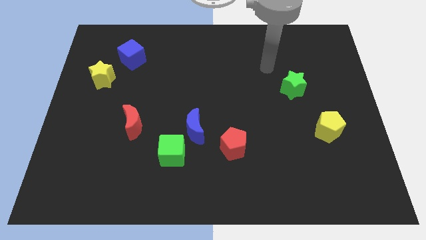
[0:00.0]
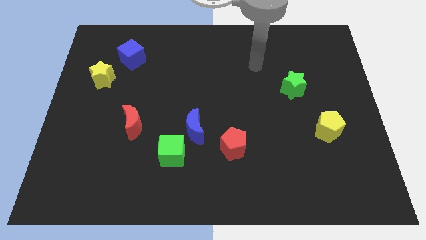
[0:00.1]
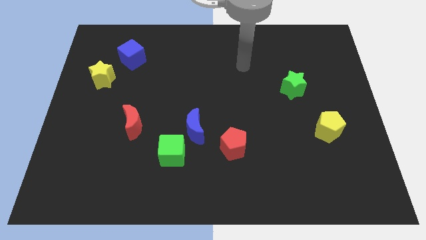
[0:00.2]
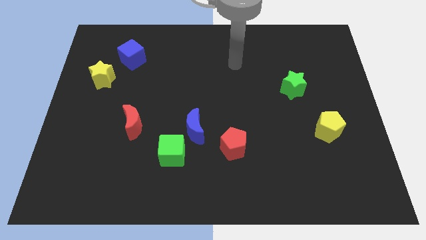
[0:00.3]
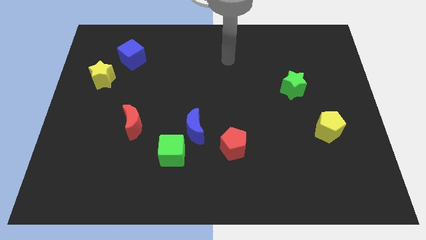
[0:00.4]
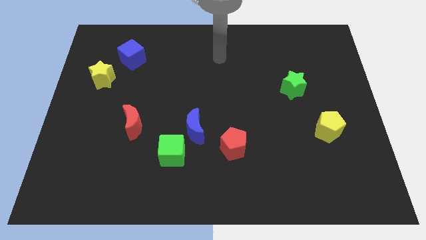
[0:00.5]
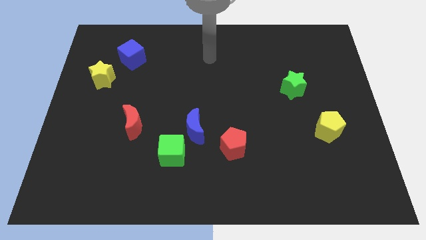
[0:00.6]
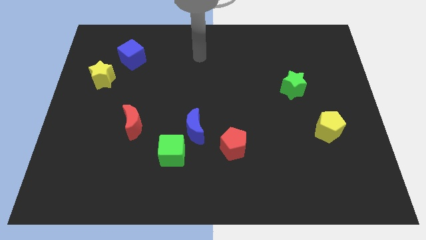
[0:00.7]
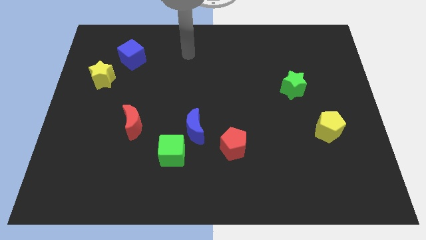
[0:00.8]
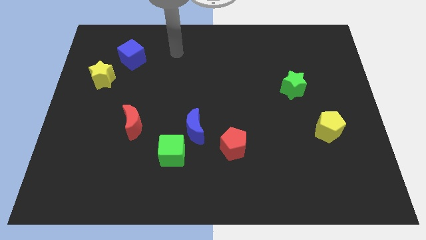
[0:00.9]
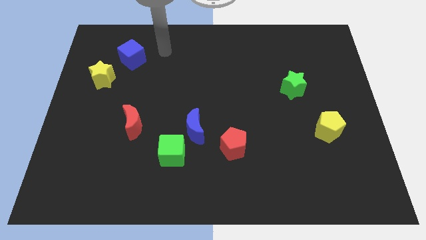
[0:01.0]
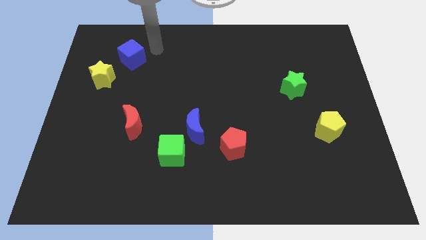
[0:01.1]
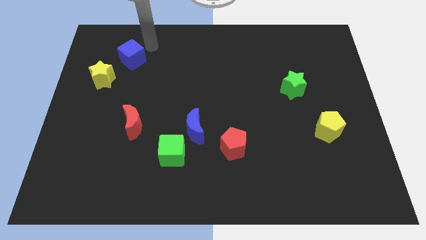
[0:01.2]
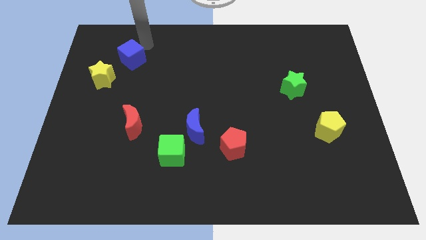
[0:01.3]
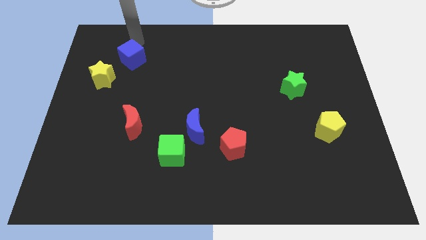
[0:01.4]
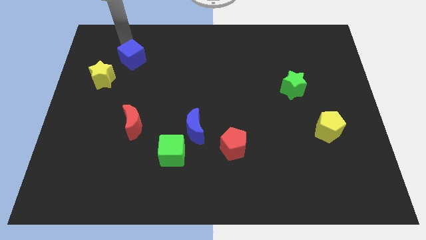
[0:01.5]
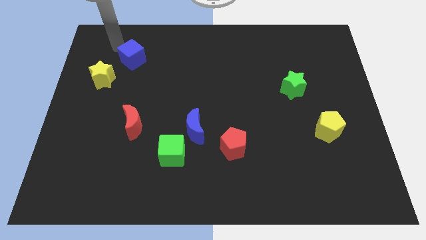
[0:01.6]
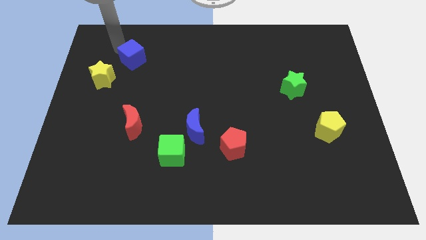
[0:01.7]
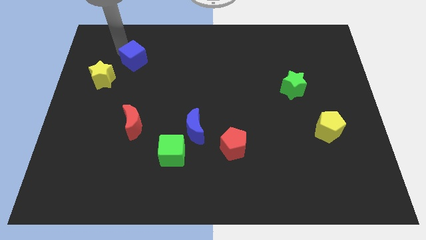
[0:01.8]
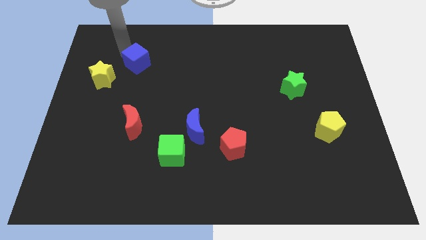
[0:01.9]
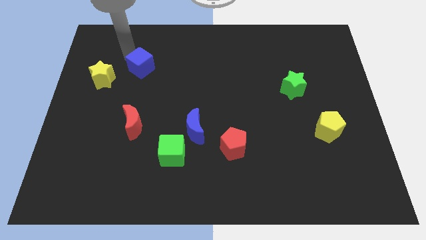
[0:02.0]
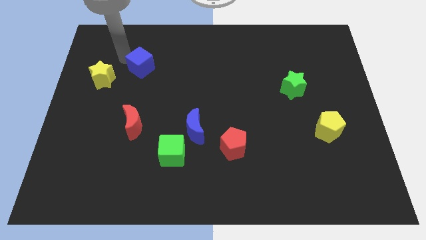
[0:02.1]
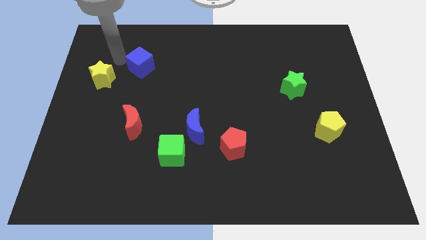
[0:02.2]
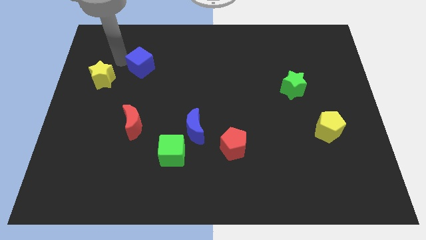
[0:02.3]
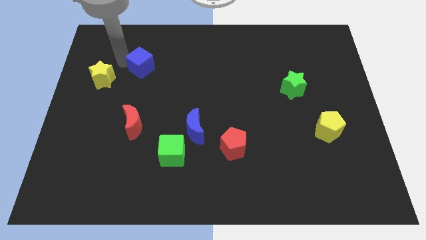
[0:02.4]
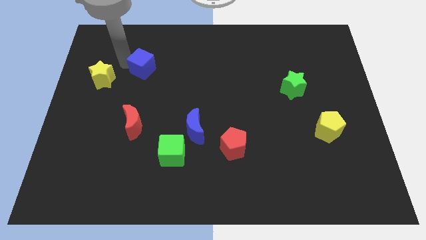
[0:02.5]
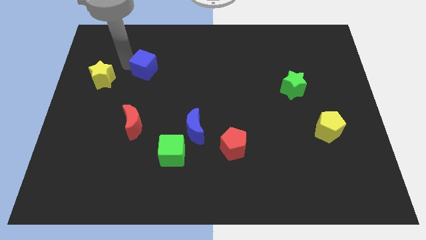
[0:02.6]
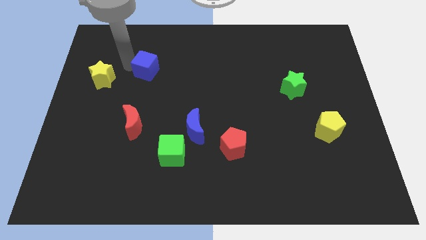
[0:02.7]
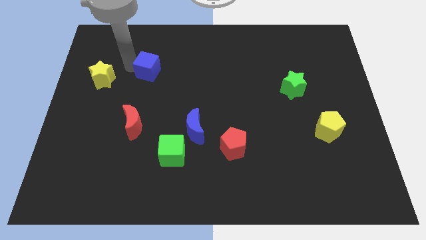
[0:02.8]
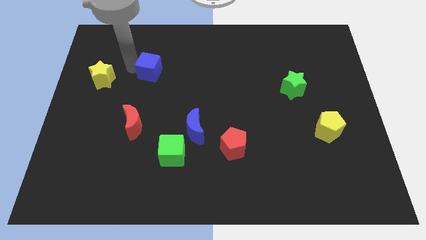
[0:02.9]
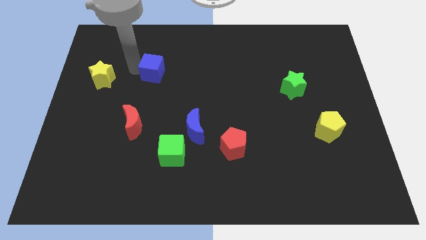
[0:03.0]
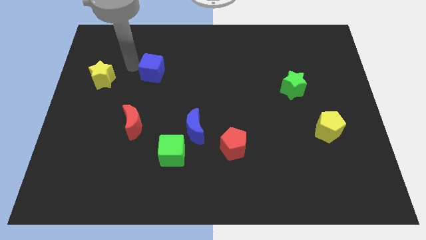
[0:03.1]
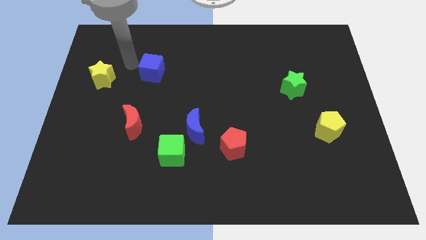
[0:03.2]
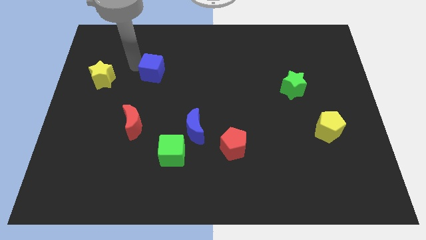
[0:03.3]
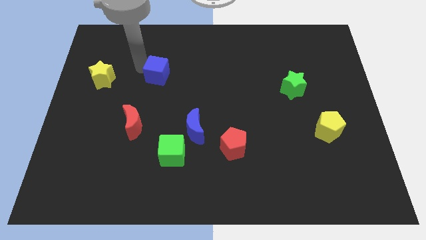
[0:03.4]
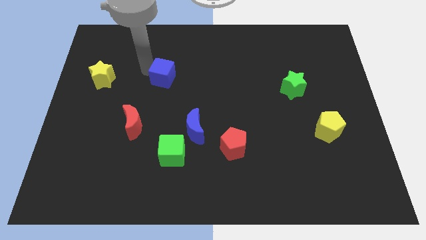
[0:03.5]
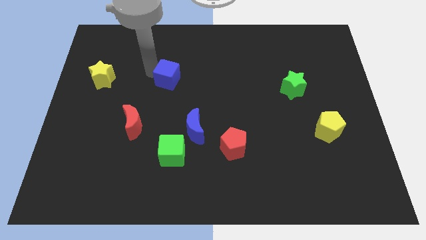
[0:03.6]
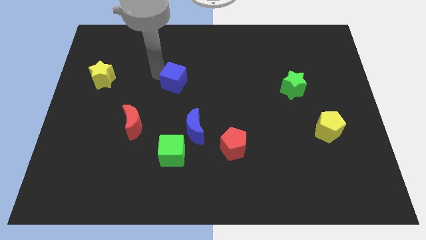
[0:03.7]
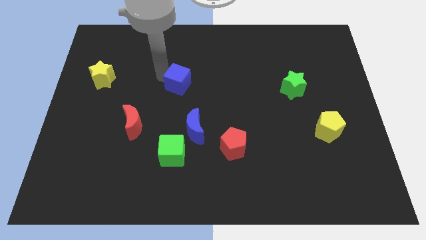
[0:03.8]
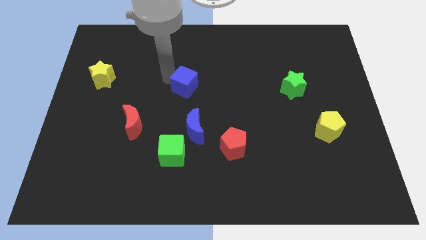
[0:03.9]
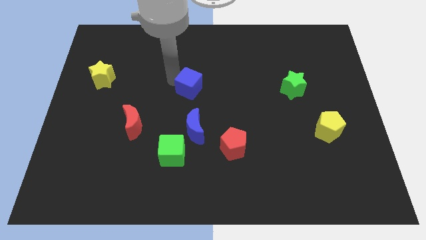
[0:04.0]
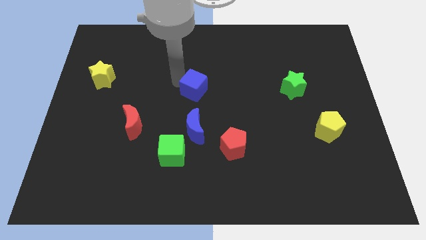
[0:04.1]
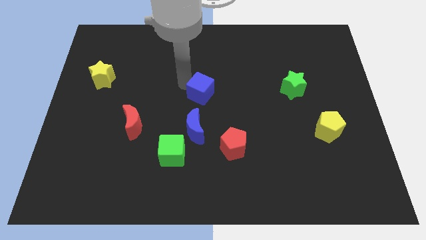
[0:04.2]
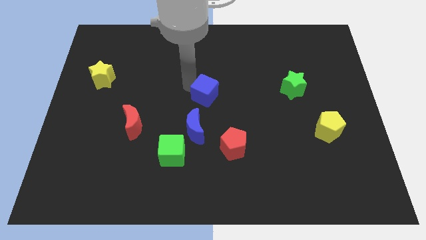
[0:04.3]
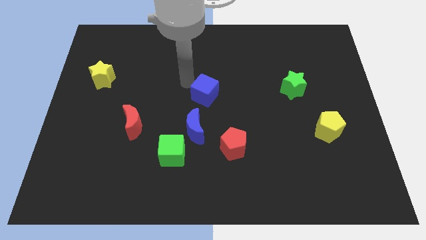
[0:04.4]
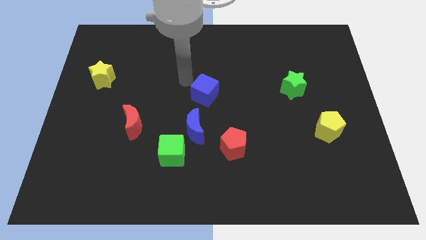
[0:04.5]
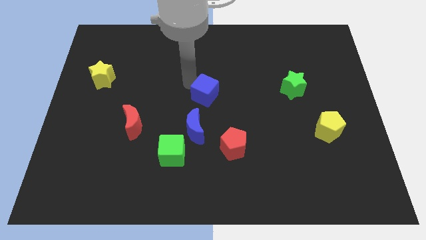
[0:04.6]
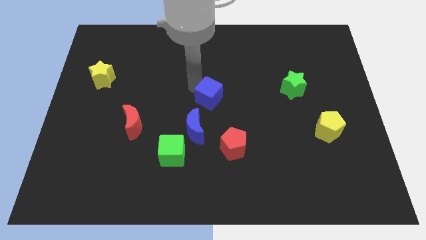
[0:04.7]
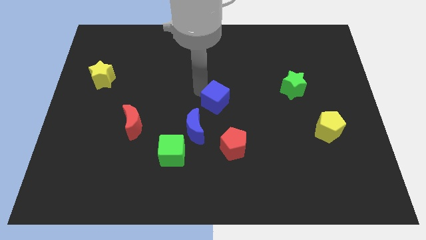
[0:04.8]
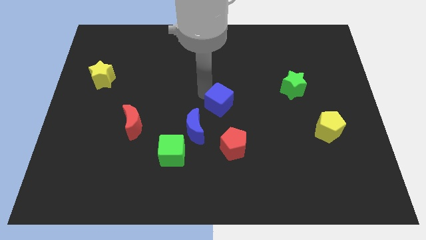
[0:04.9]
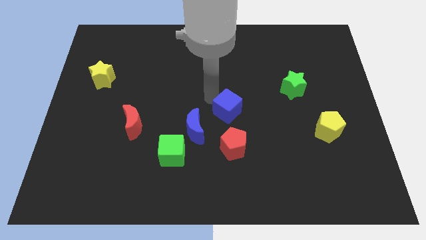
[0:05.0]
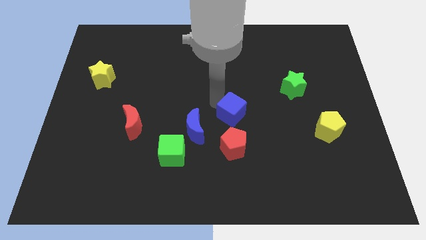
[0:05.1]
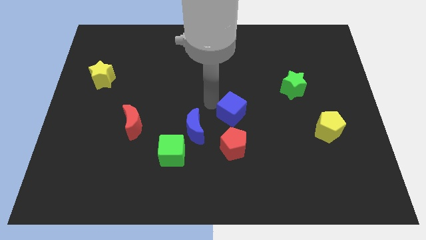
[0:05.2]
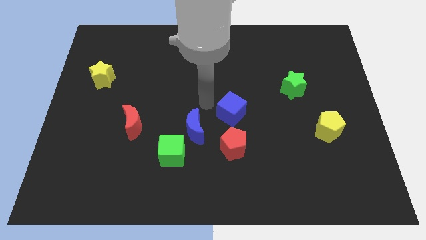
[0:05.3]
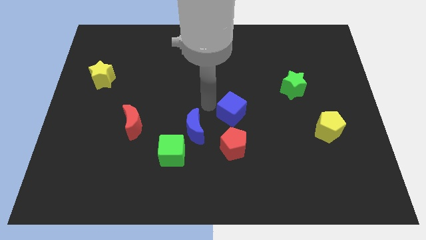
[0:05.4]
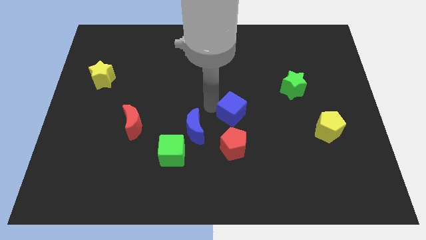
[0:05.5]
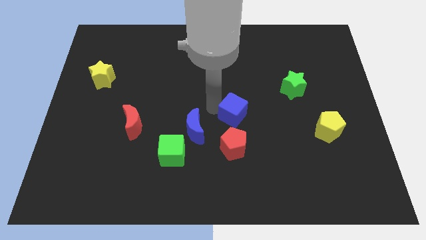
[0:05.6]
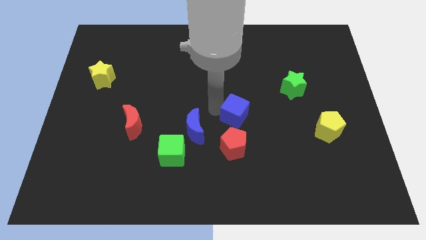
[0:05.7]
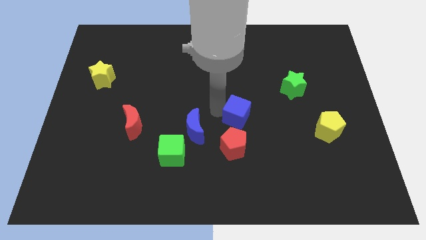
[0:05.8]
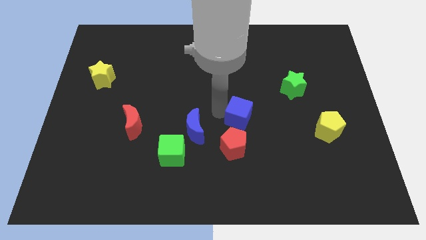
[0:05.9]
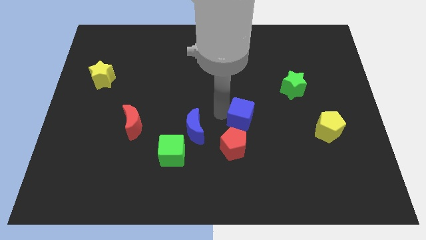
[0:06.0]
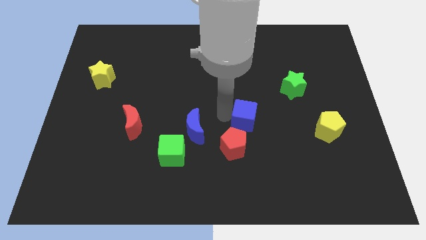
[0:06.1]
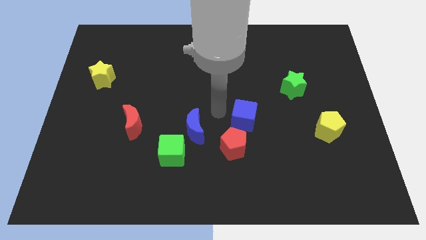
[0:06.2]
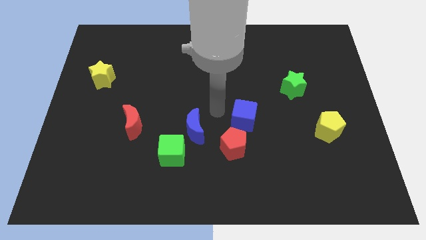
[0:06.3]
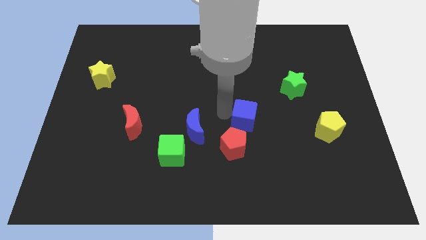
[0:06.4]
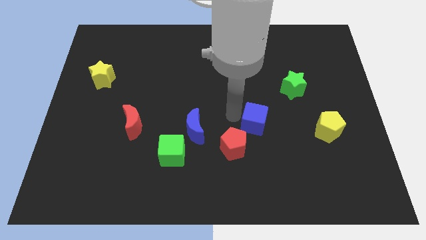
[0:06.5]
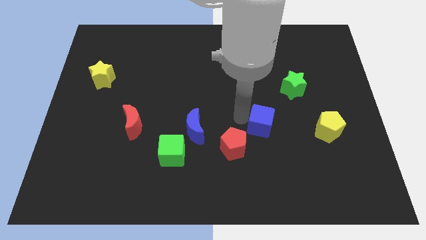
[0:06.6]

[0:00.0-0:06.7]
move the blue cube to the left side of the yellow pentagon

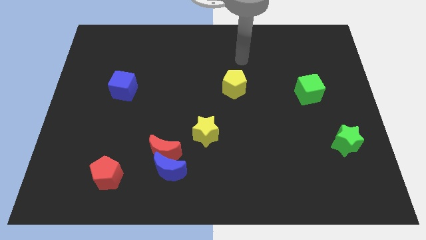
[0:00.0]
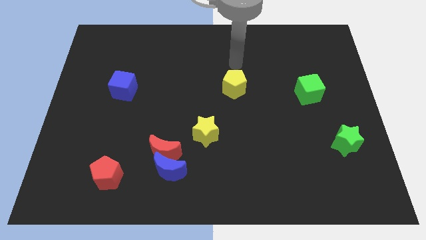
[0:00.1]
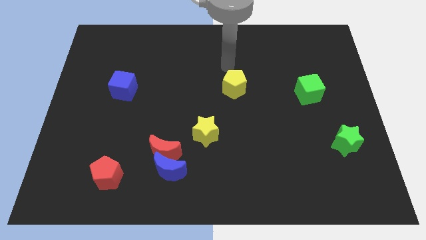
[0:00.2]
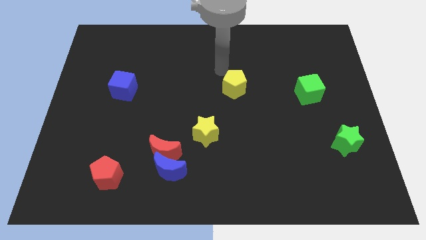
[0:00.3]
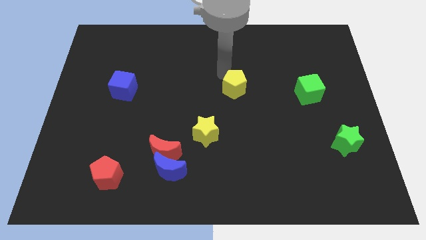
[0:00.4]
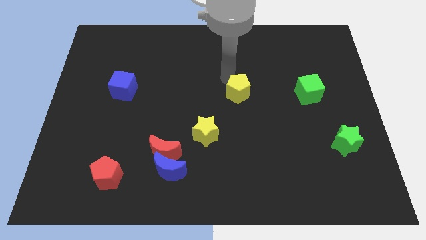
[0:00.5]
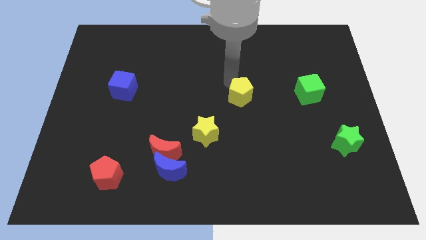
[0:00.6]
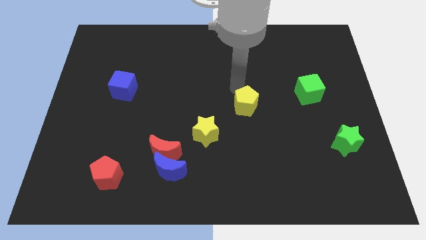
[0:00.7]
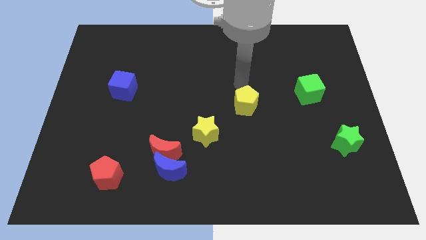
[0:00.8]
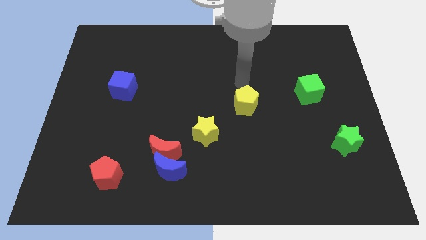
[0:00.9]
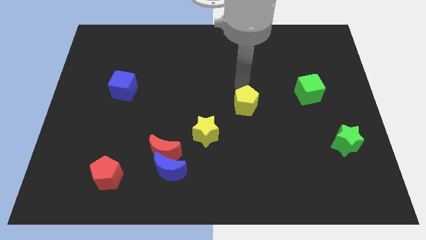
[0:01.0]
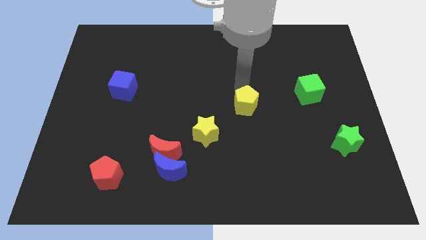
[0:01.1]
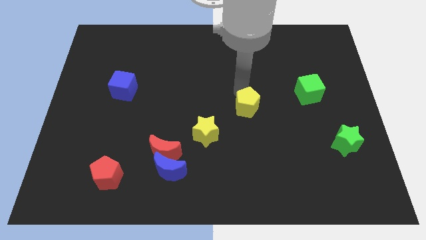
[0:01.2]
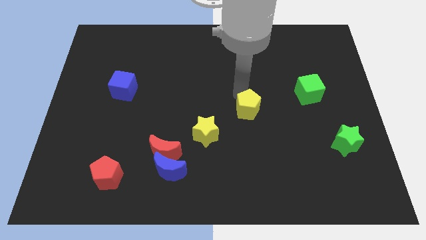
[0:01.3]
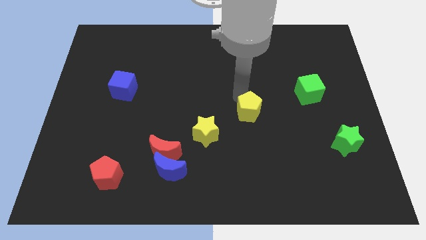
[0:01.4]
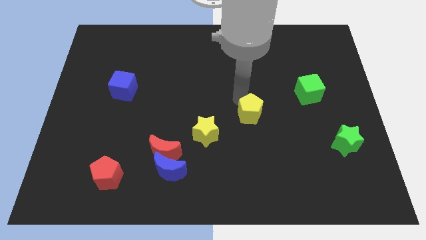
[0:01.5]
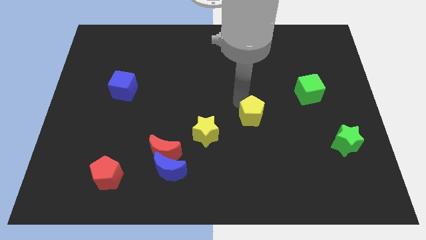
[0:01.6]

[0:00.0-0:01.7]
slide the yellow pentagon to the right side of the yellow star
